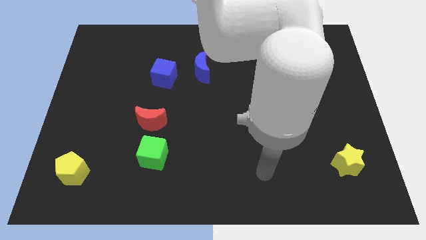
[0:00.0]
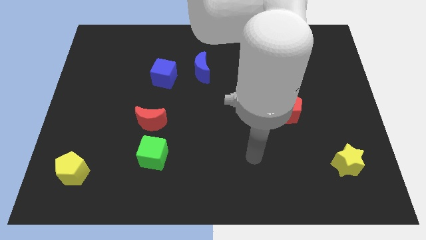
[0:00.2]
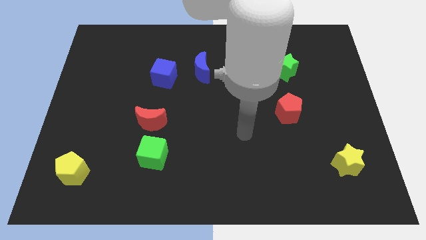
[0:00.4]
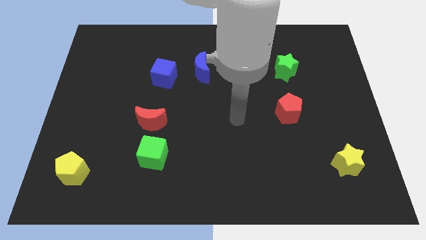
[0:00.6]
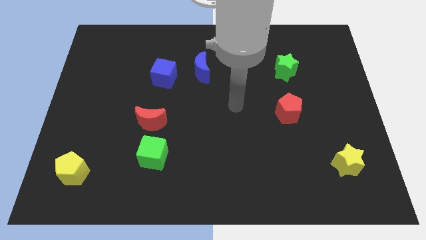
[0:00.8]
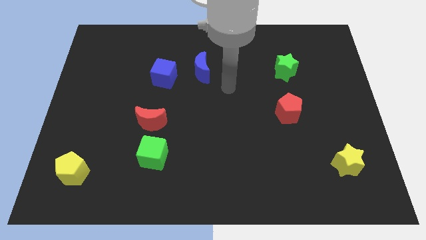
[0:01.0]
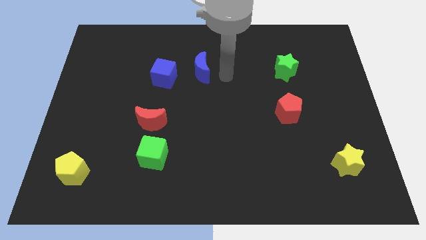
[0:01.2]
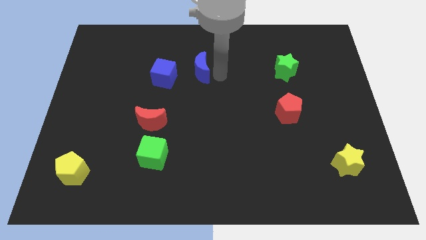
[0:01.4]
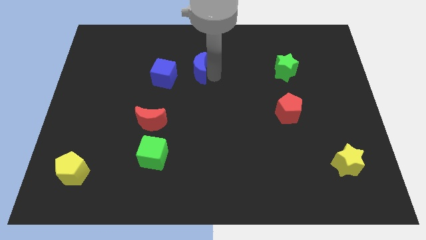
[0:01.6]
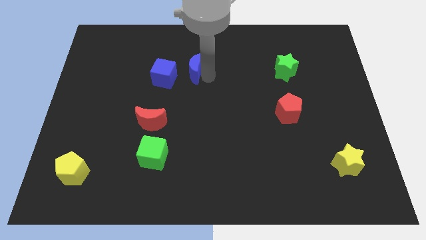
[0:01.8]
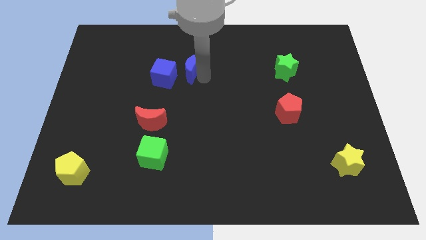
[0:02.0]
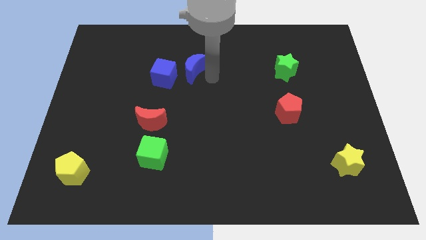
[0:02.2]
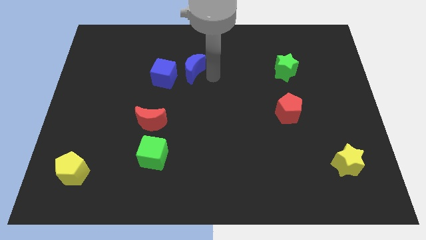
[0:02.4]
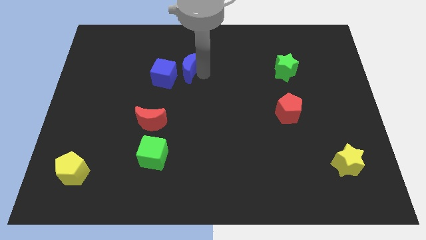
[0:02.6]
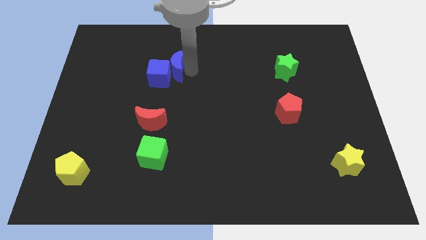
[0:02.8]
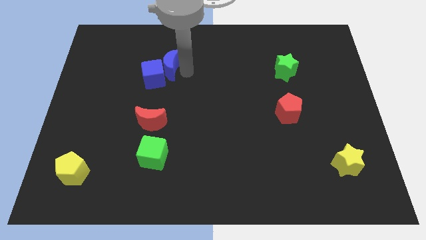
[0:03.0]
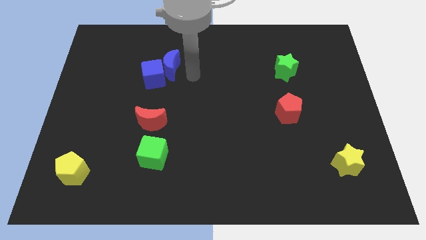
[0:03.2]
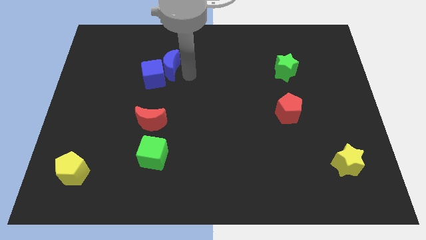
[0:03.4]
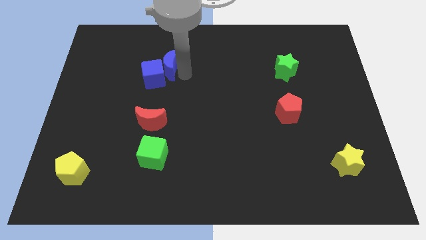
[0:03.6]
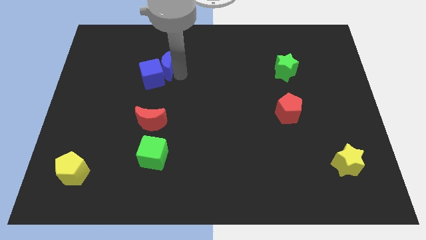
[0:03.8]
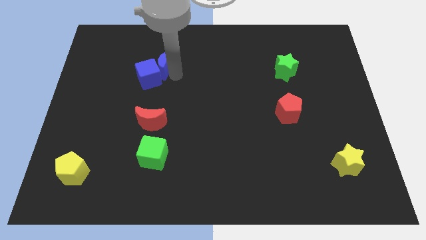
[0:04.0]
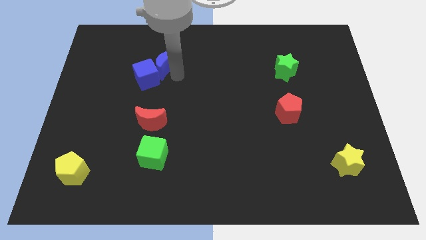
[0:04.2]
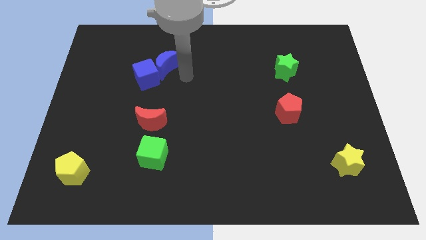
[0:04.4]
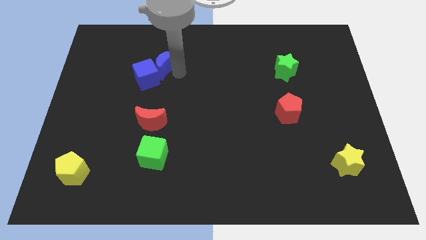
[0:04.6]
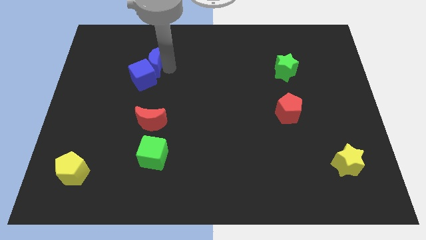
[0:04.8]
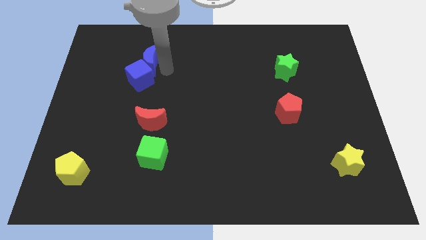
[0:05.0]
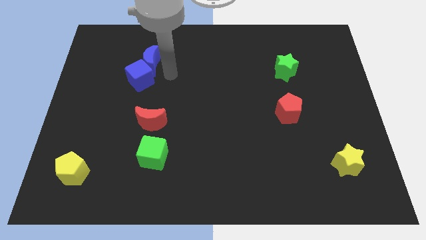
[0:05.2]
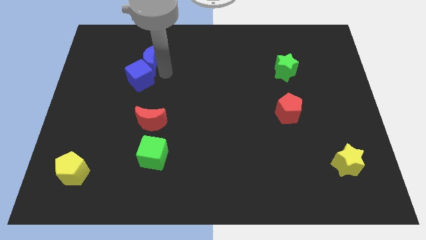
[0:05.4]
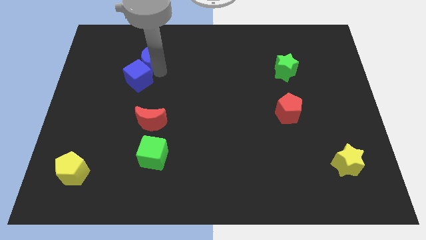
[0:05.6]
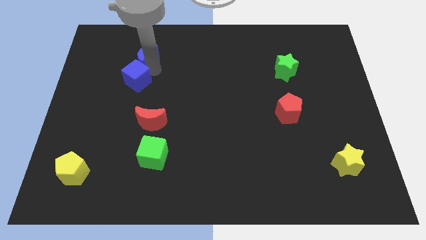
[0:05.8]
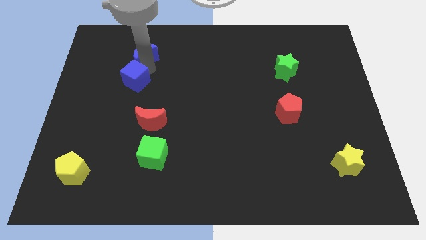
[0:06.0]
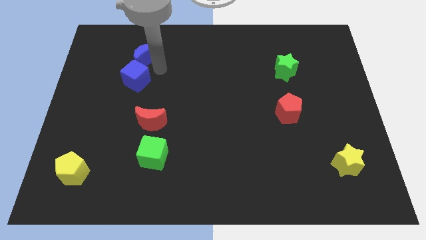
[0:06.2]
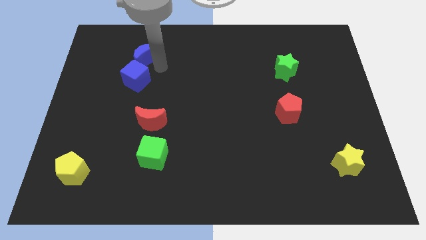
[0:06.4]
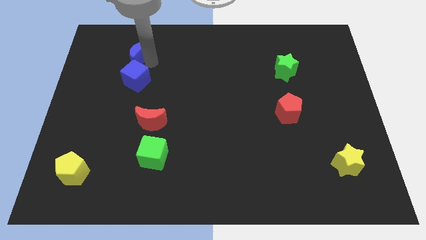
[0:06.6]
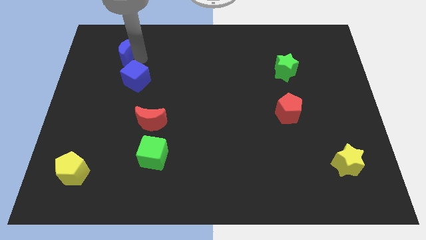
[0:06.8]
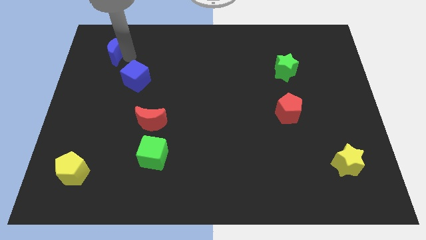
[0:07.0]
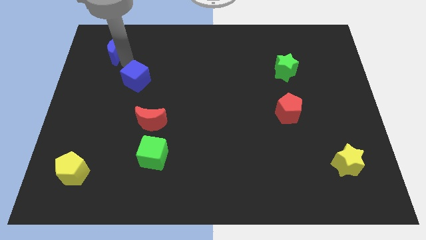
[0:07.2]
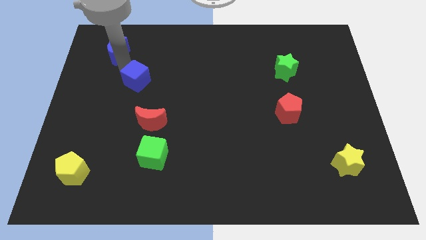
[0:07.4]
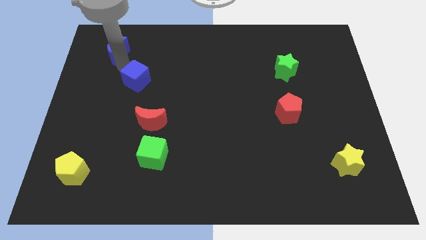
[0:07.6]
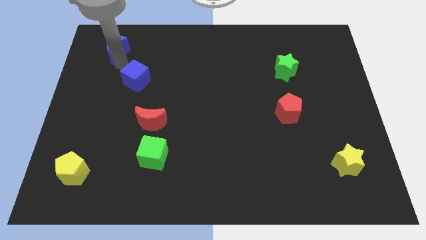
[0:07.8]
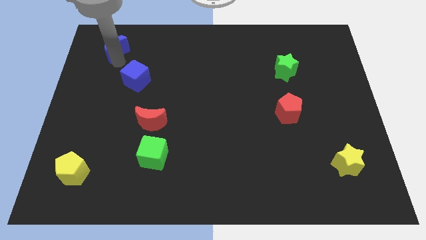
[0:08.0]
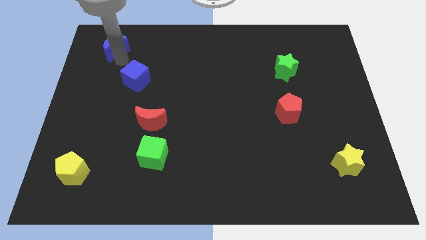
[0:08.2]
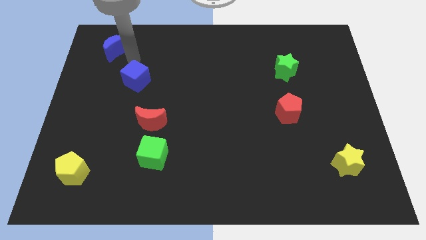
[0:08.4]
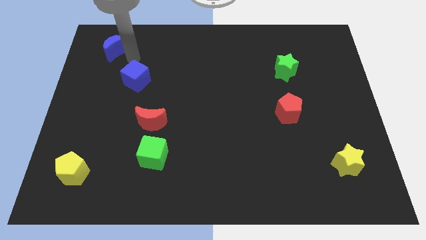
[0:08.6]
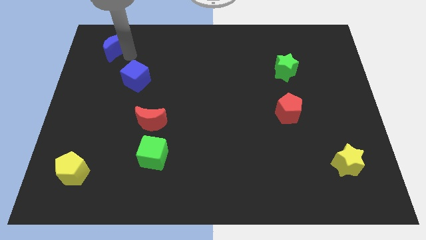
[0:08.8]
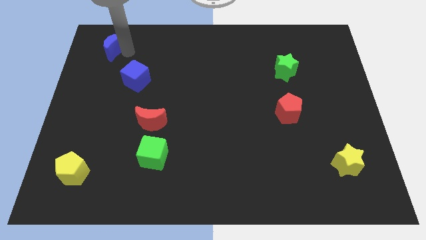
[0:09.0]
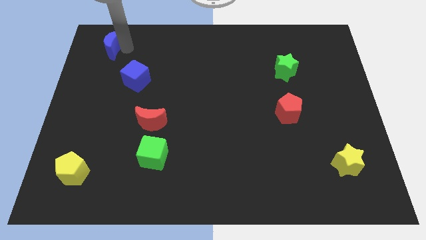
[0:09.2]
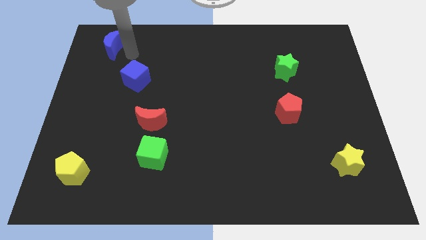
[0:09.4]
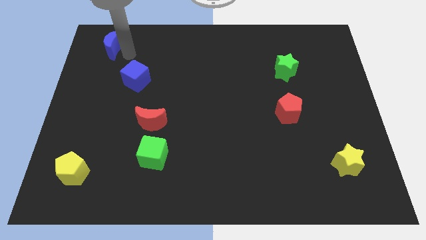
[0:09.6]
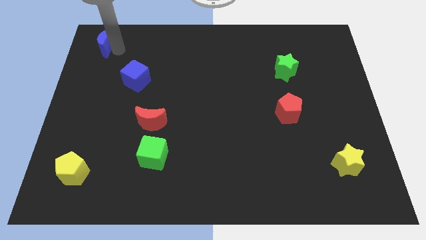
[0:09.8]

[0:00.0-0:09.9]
move the blue moon to the top left corner

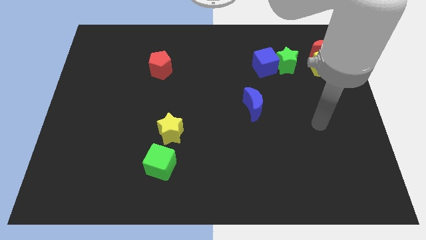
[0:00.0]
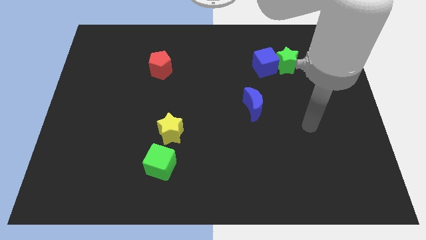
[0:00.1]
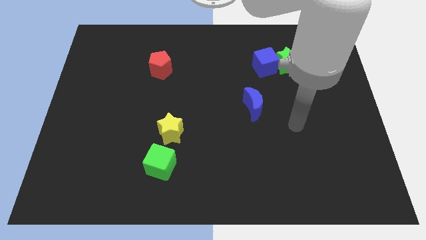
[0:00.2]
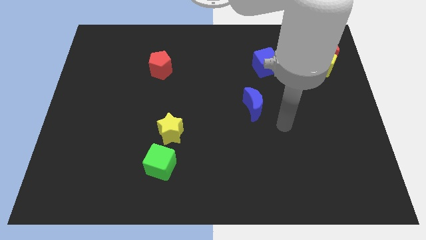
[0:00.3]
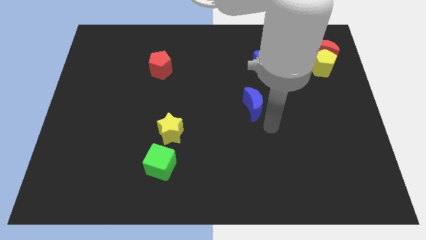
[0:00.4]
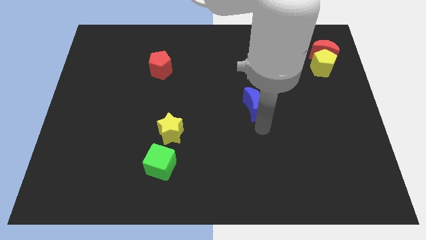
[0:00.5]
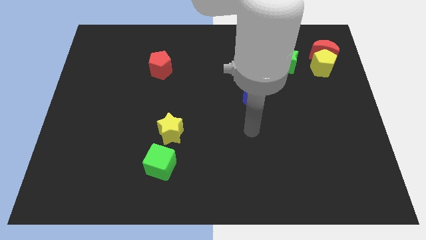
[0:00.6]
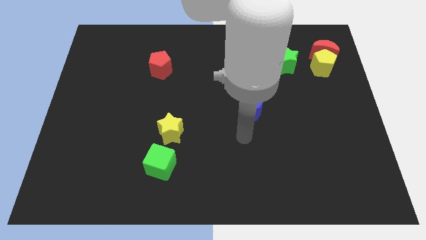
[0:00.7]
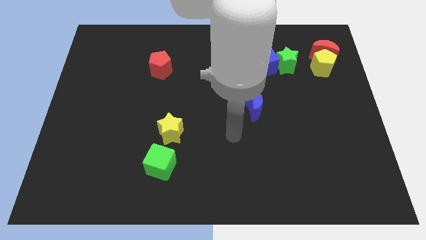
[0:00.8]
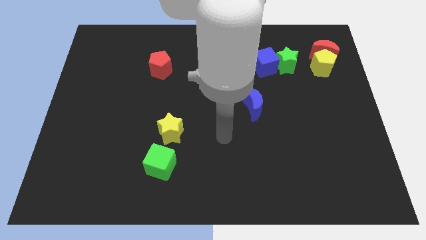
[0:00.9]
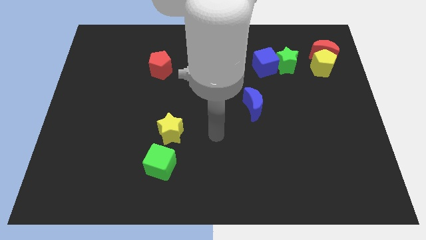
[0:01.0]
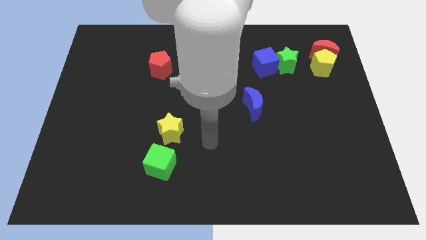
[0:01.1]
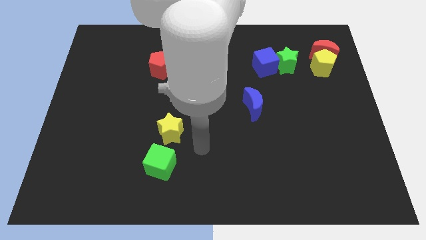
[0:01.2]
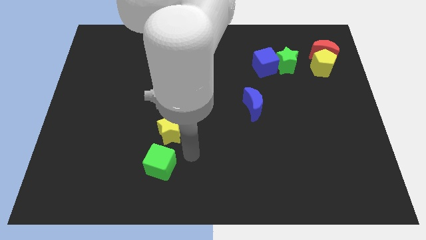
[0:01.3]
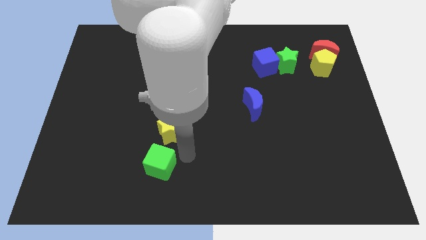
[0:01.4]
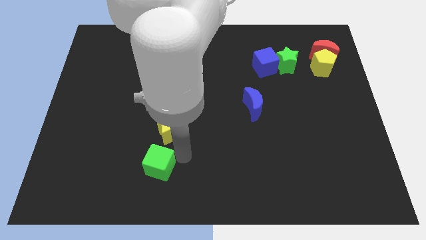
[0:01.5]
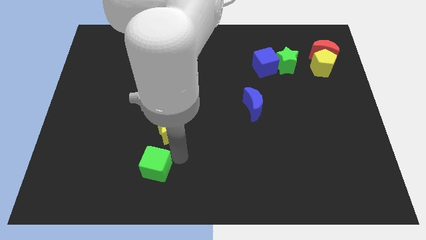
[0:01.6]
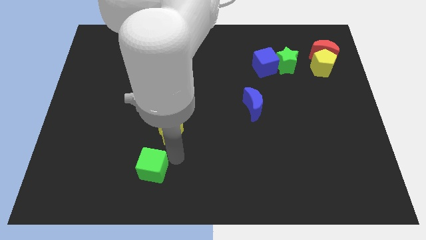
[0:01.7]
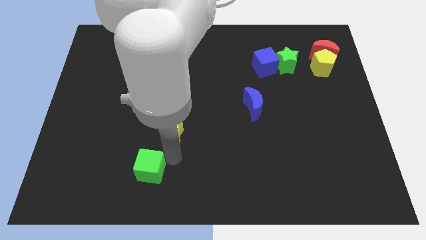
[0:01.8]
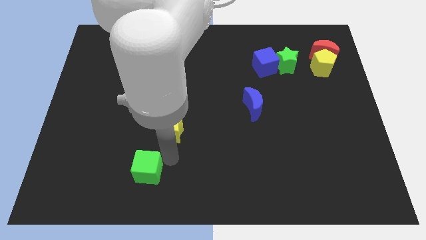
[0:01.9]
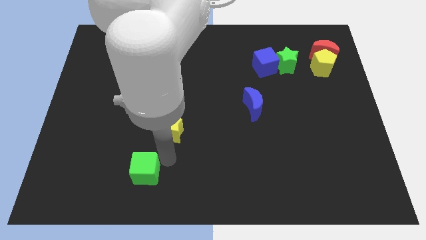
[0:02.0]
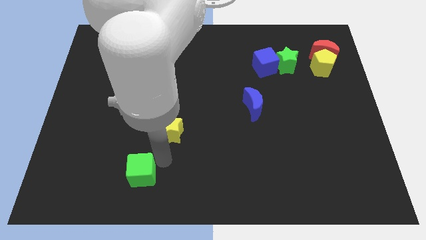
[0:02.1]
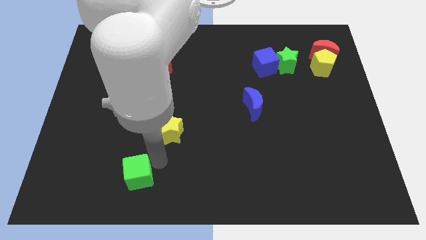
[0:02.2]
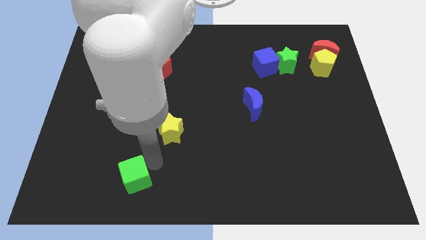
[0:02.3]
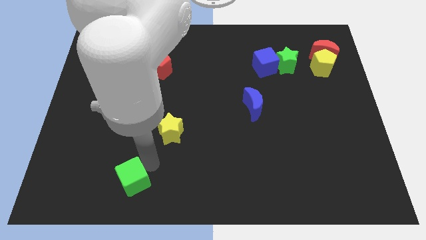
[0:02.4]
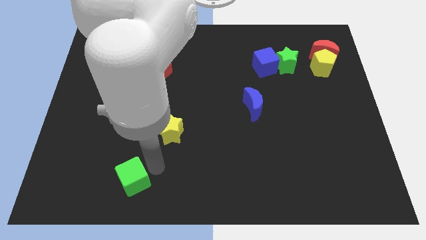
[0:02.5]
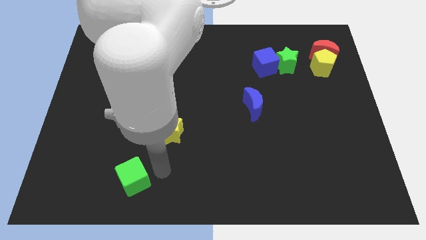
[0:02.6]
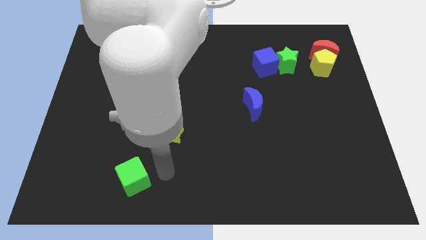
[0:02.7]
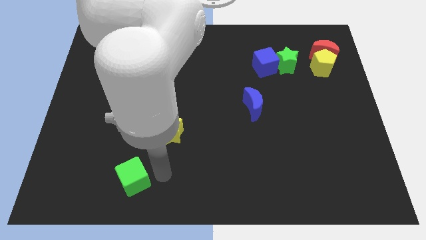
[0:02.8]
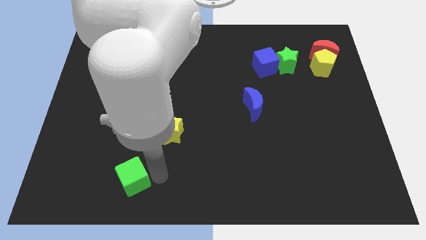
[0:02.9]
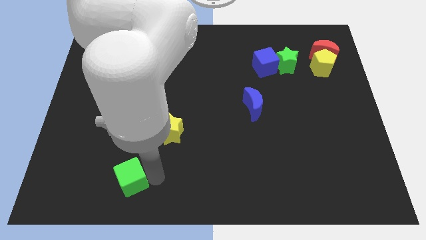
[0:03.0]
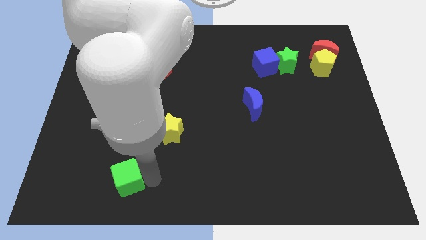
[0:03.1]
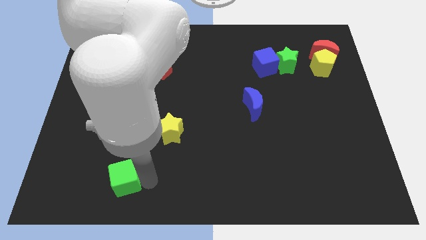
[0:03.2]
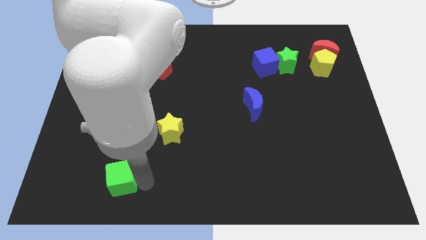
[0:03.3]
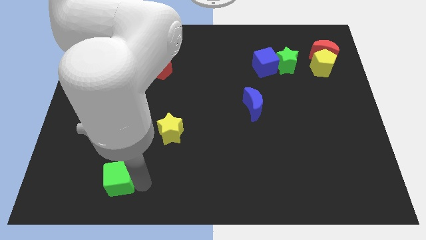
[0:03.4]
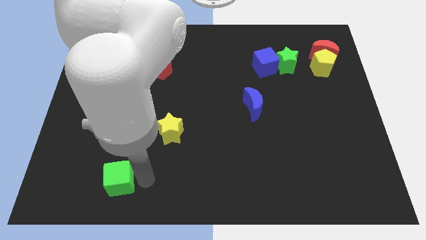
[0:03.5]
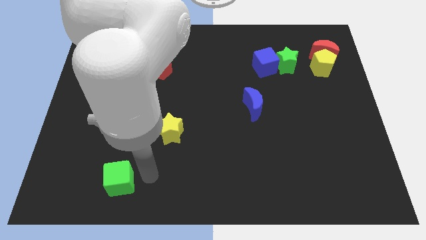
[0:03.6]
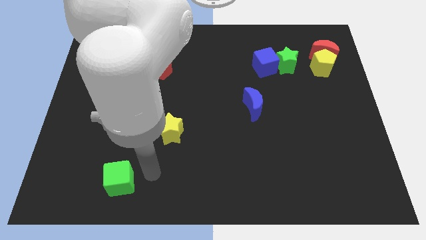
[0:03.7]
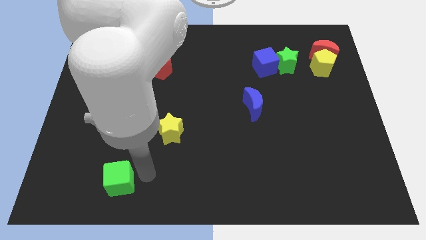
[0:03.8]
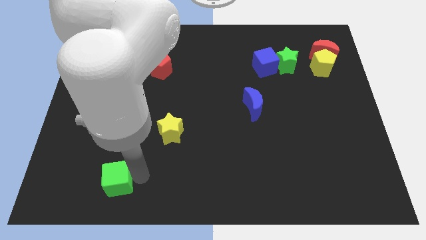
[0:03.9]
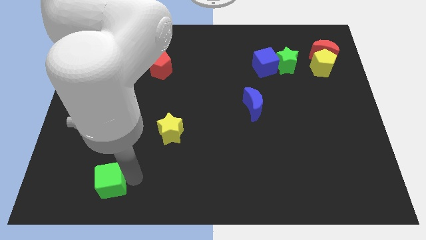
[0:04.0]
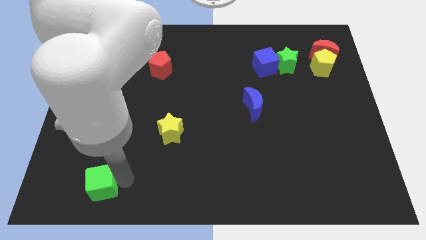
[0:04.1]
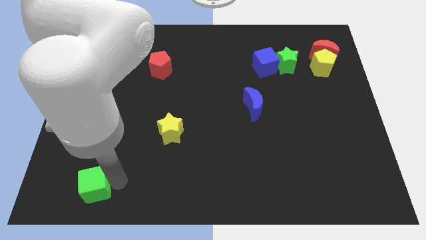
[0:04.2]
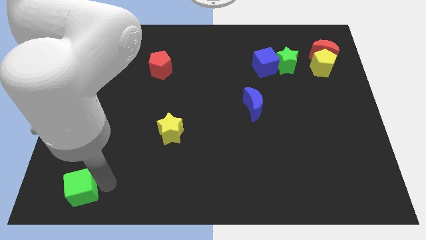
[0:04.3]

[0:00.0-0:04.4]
slide the green cube to the bottom left corner
